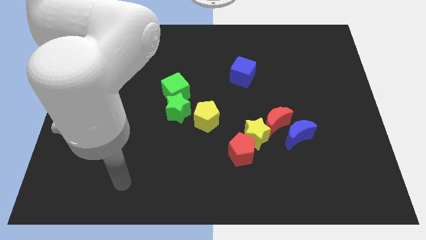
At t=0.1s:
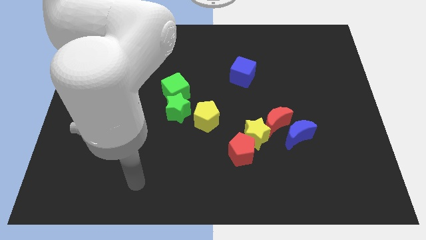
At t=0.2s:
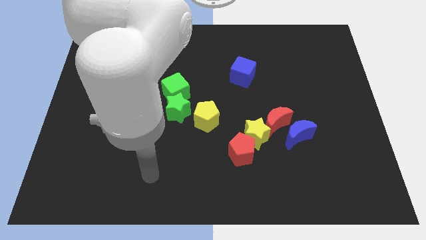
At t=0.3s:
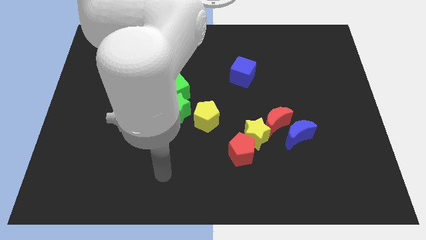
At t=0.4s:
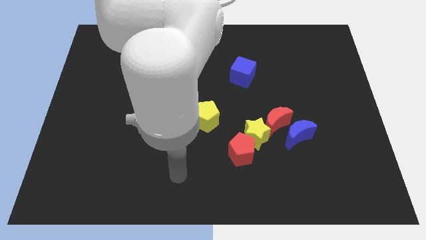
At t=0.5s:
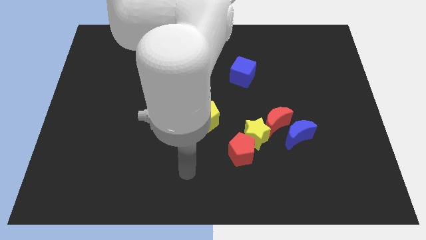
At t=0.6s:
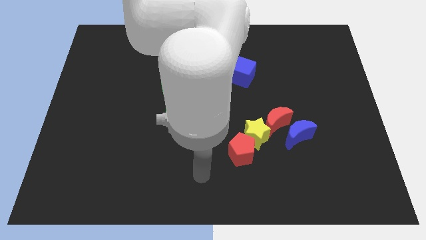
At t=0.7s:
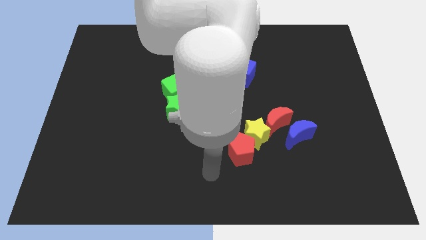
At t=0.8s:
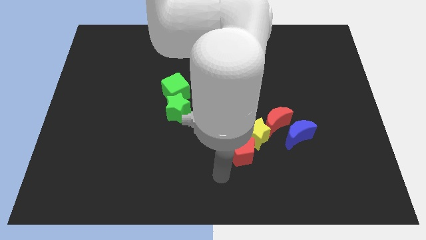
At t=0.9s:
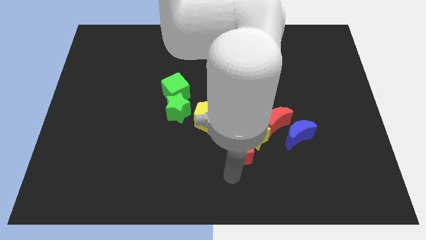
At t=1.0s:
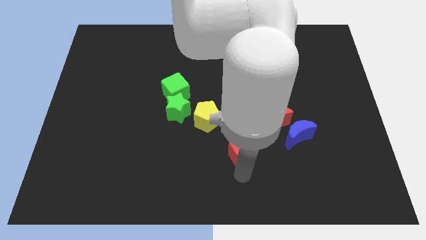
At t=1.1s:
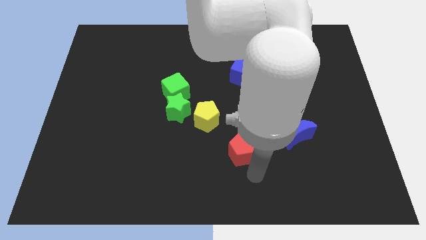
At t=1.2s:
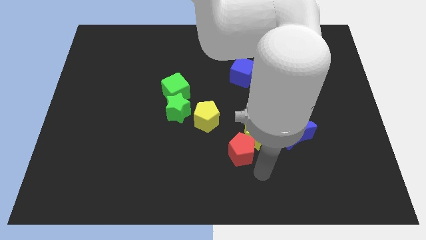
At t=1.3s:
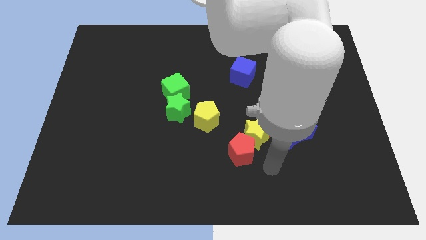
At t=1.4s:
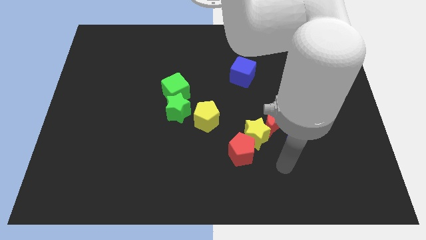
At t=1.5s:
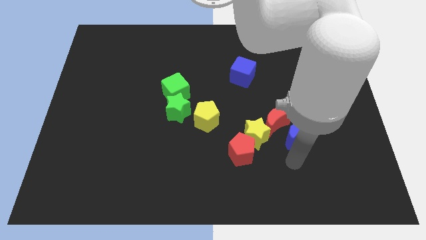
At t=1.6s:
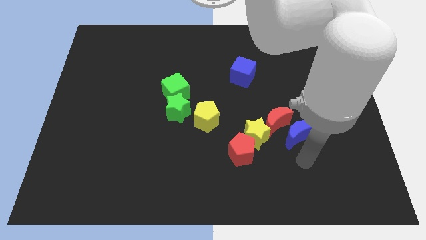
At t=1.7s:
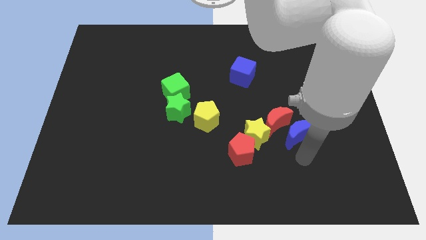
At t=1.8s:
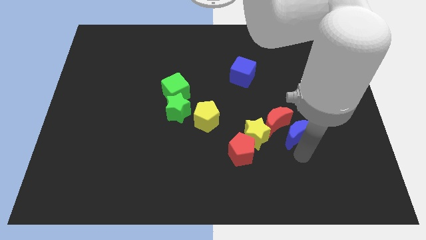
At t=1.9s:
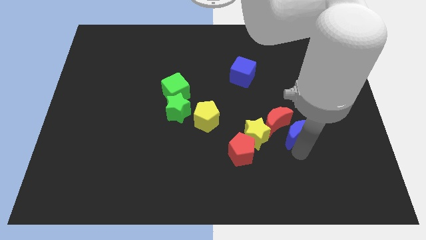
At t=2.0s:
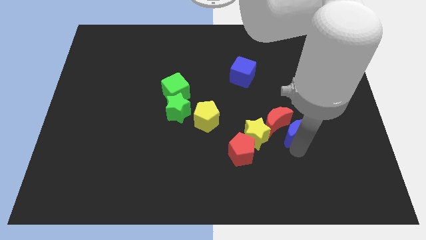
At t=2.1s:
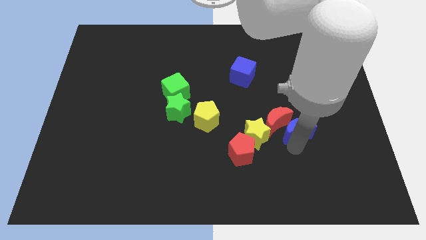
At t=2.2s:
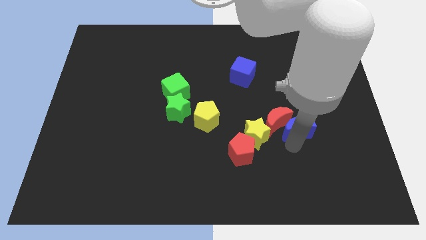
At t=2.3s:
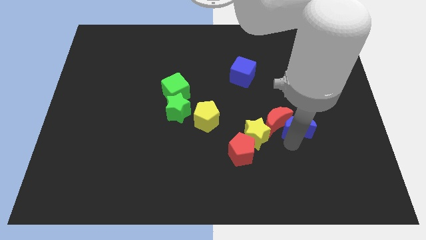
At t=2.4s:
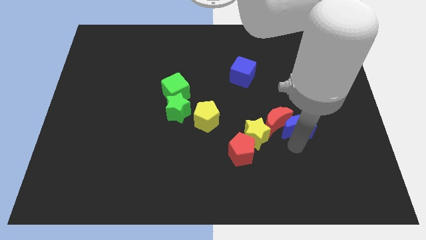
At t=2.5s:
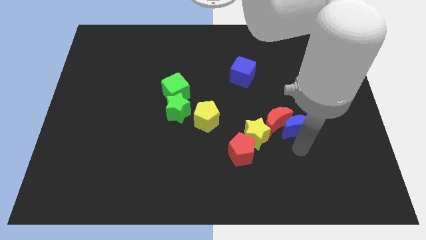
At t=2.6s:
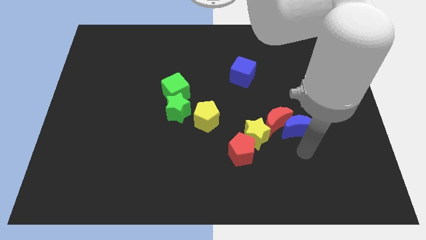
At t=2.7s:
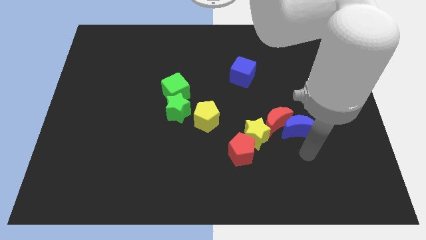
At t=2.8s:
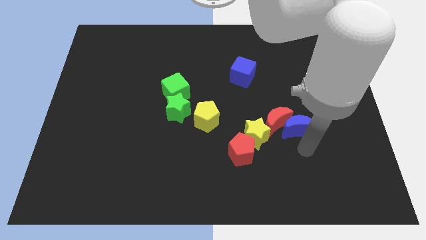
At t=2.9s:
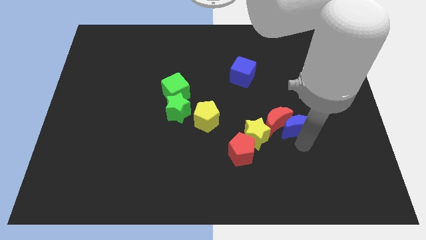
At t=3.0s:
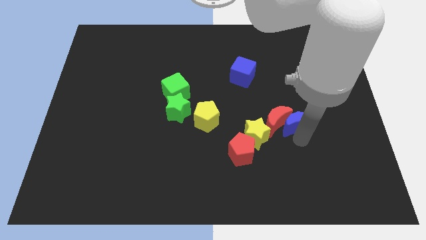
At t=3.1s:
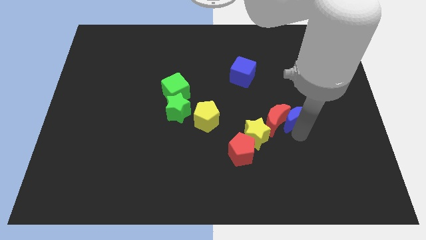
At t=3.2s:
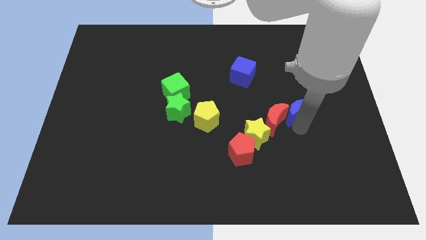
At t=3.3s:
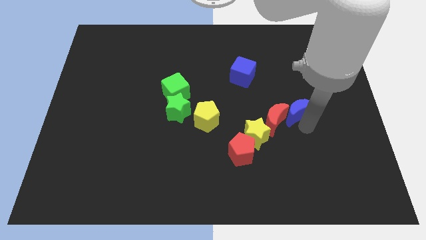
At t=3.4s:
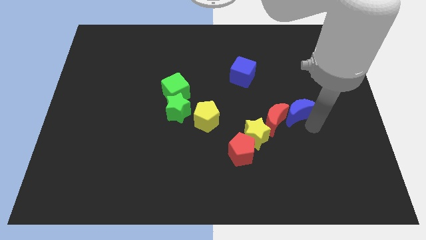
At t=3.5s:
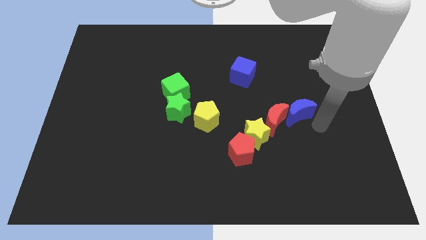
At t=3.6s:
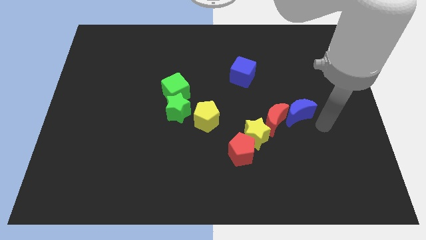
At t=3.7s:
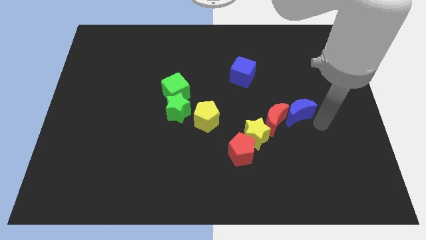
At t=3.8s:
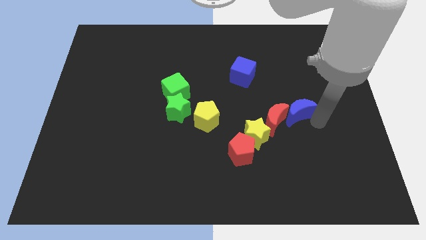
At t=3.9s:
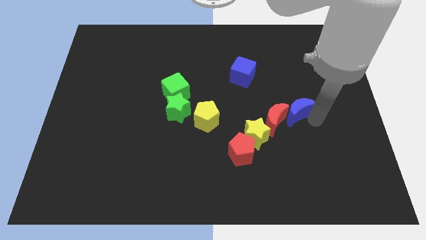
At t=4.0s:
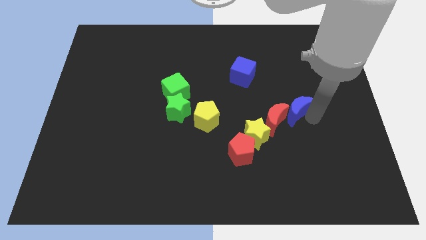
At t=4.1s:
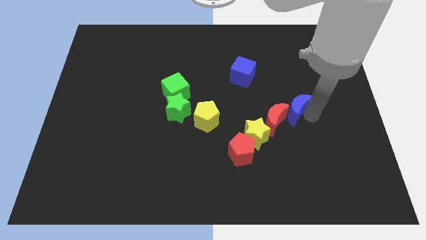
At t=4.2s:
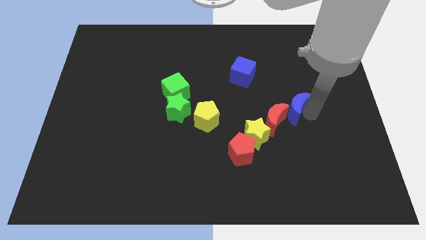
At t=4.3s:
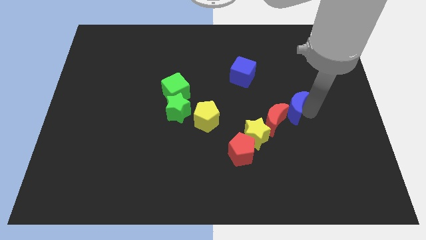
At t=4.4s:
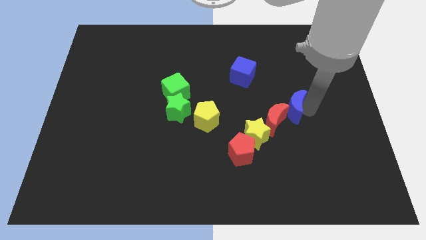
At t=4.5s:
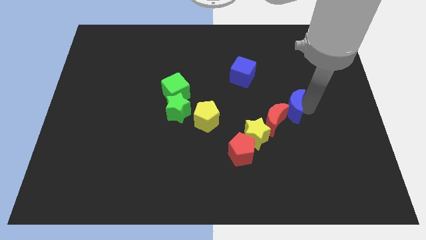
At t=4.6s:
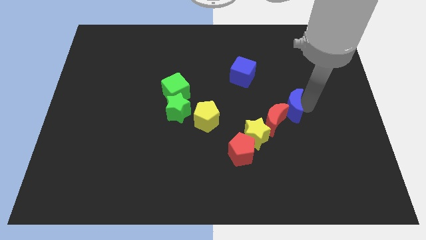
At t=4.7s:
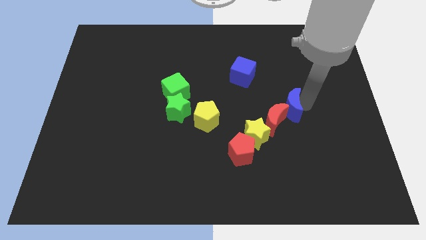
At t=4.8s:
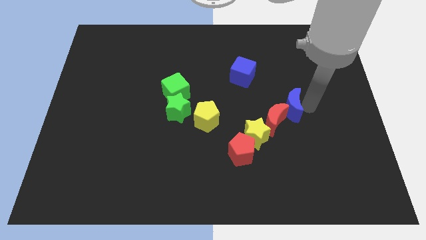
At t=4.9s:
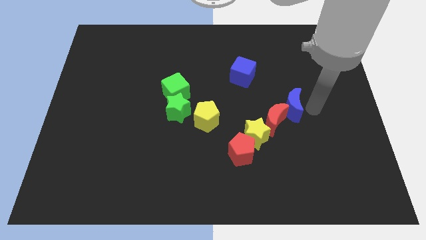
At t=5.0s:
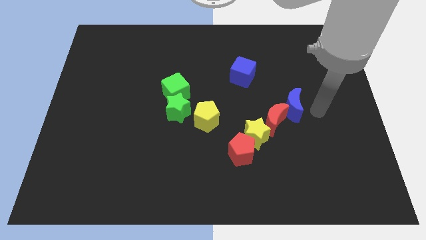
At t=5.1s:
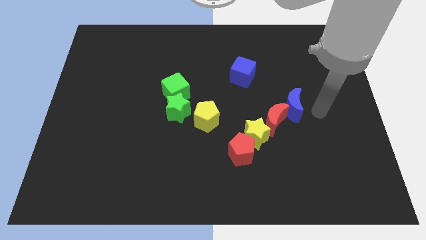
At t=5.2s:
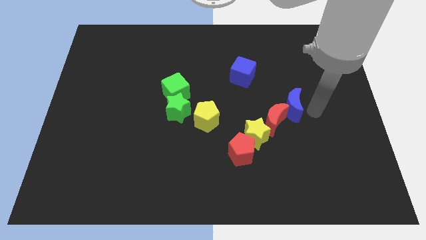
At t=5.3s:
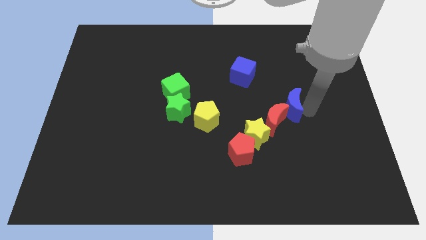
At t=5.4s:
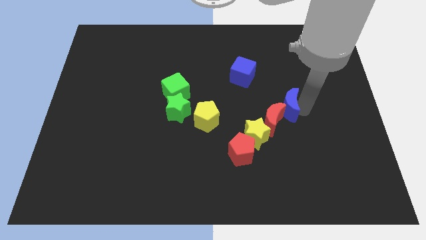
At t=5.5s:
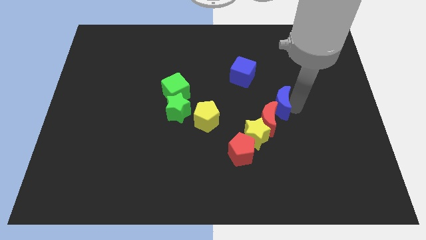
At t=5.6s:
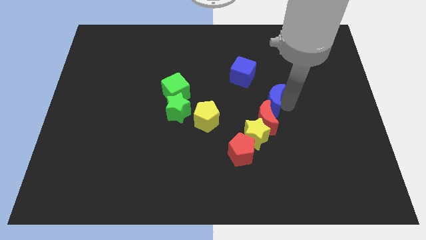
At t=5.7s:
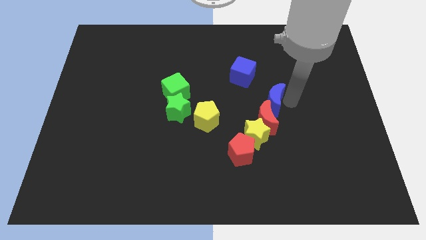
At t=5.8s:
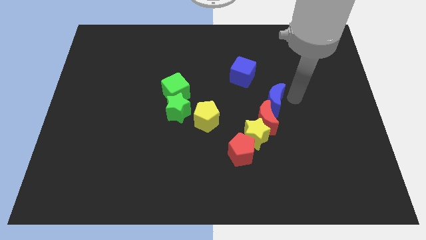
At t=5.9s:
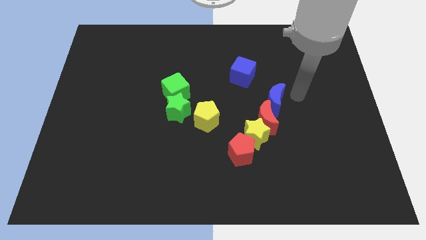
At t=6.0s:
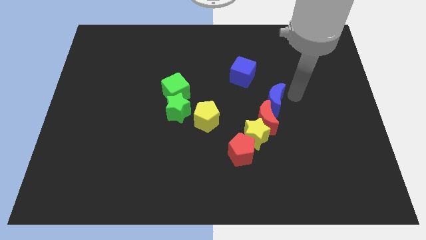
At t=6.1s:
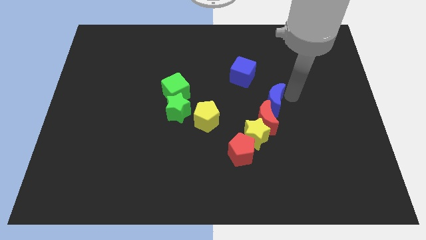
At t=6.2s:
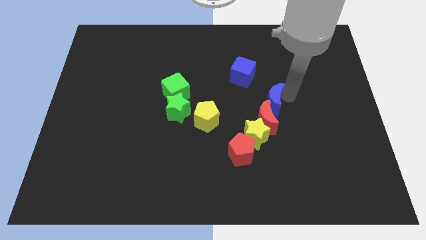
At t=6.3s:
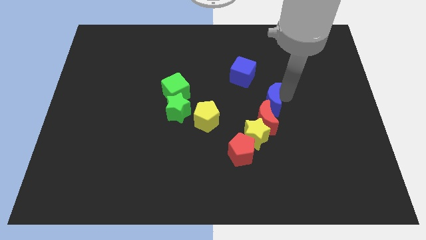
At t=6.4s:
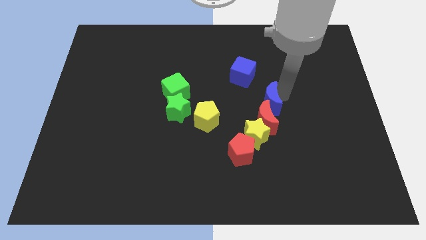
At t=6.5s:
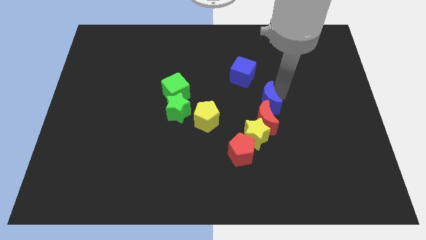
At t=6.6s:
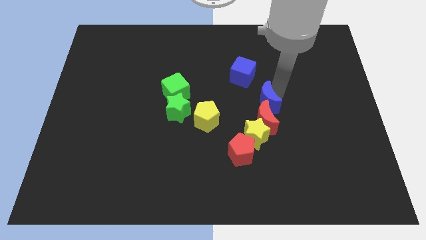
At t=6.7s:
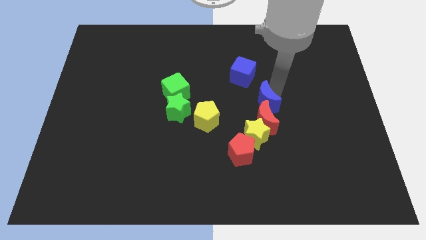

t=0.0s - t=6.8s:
put the blue moon to the middle
